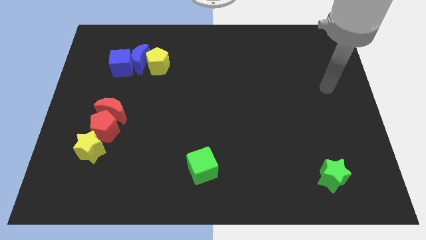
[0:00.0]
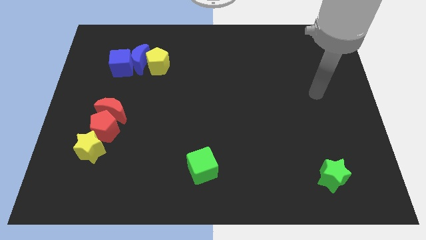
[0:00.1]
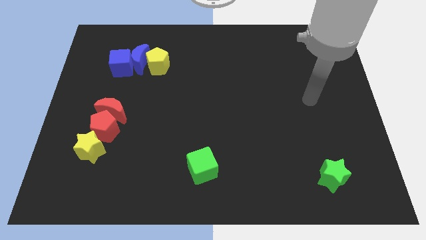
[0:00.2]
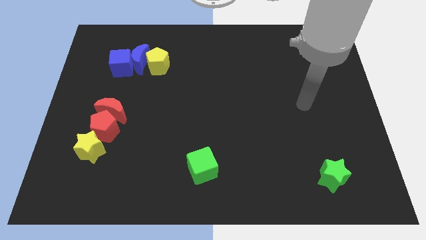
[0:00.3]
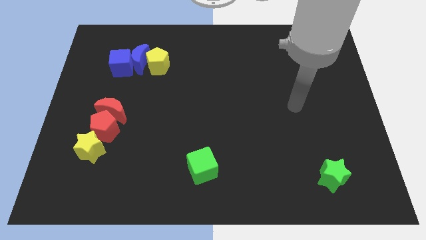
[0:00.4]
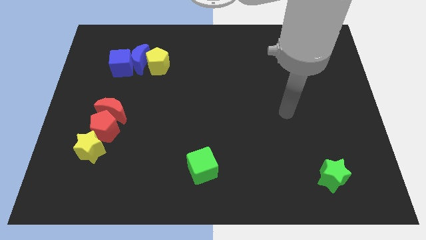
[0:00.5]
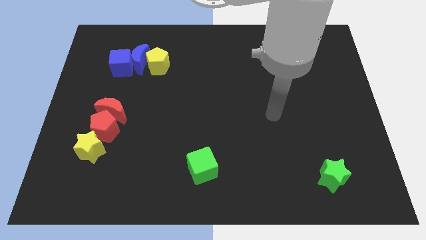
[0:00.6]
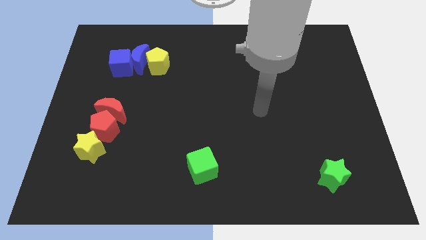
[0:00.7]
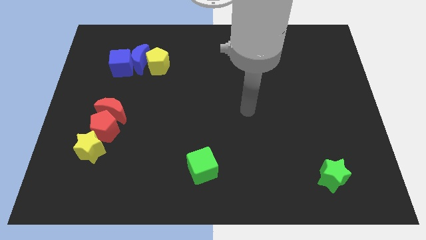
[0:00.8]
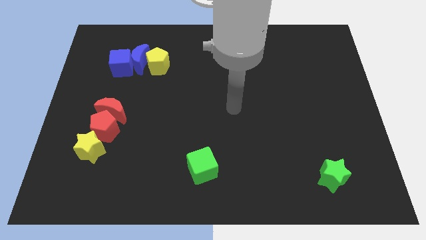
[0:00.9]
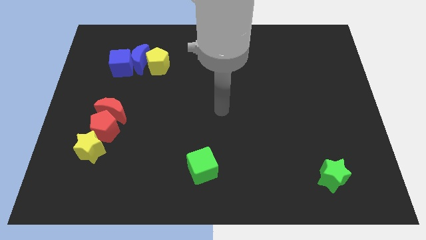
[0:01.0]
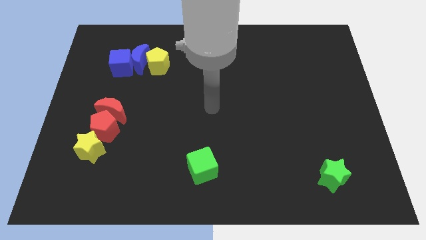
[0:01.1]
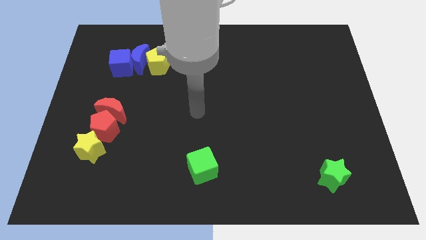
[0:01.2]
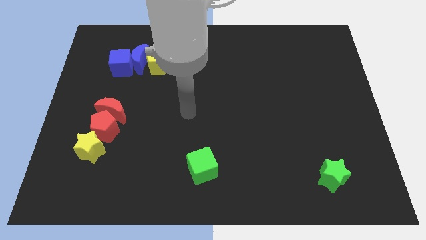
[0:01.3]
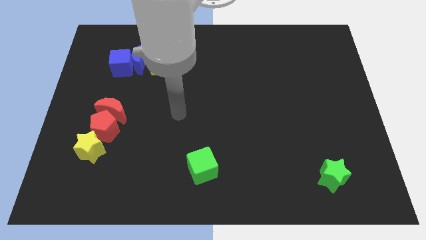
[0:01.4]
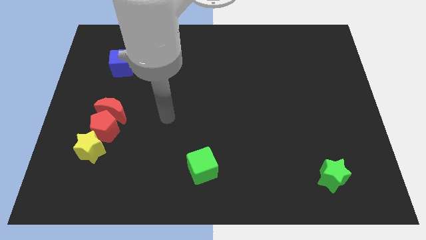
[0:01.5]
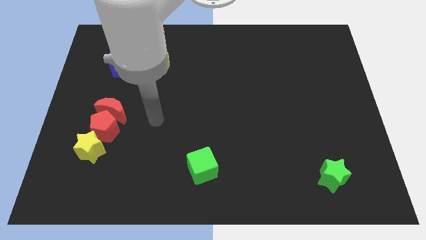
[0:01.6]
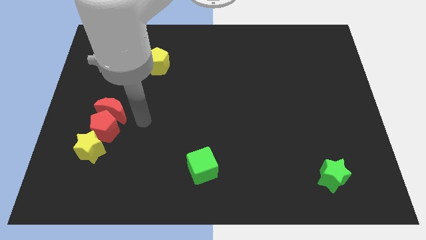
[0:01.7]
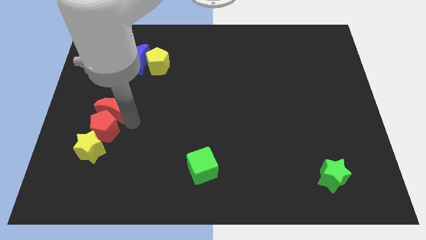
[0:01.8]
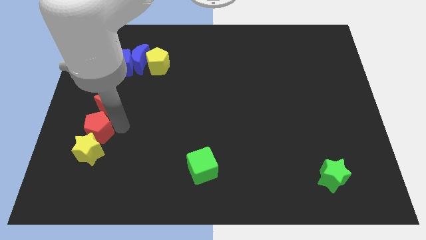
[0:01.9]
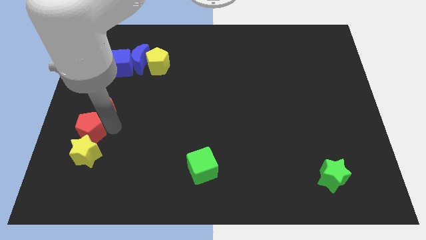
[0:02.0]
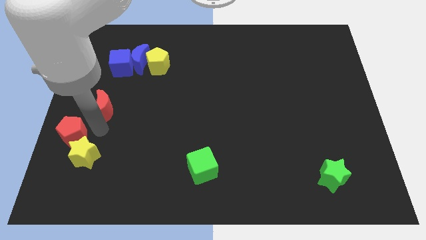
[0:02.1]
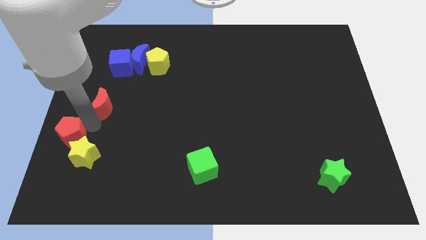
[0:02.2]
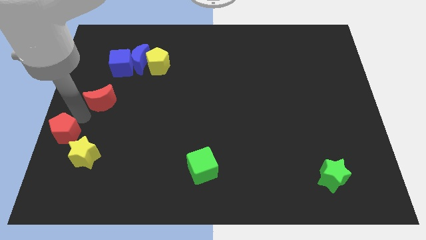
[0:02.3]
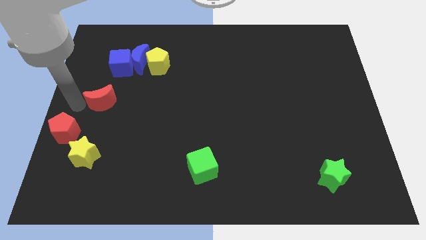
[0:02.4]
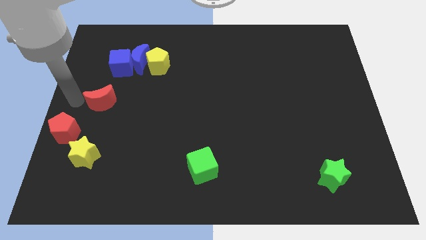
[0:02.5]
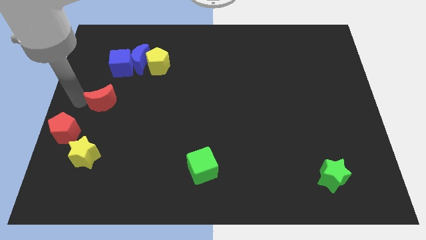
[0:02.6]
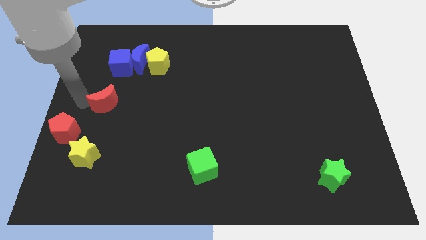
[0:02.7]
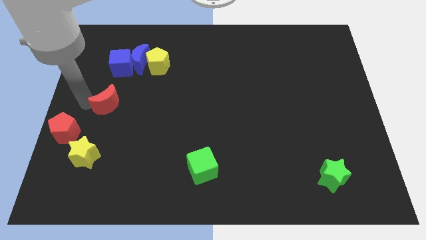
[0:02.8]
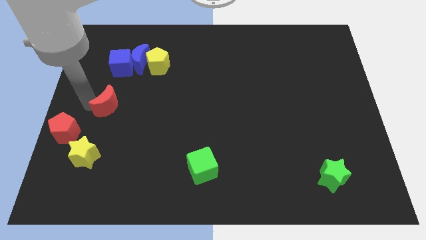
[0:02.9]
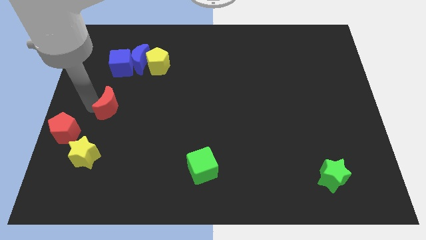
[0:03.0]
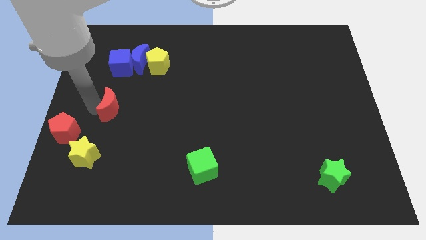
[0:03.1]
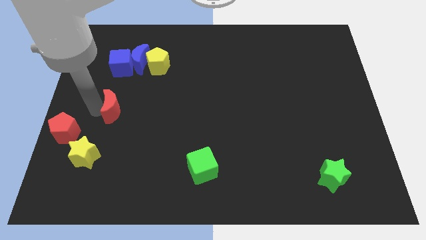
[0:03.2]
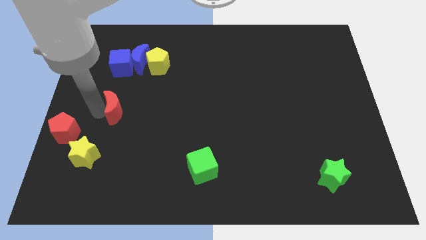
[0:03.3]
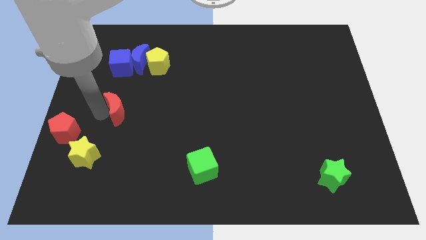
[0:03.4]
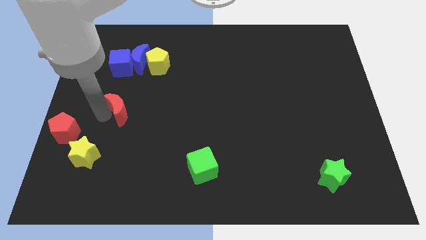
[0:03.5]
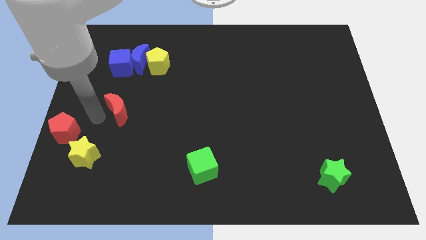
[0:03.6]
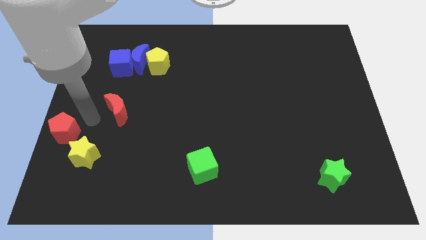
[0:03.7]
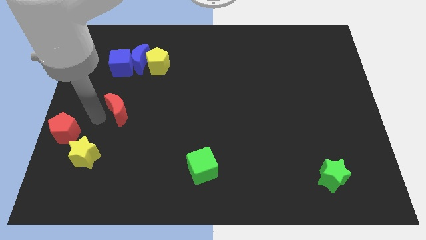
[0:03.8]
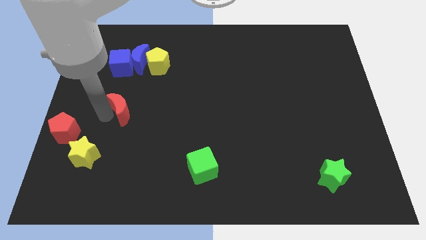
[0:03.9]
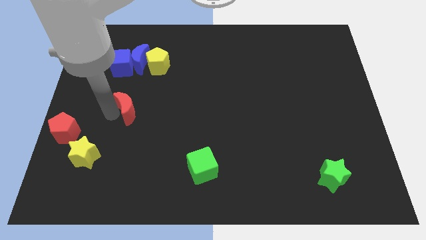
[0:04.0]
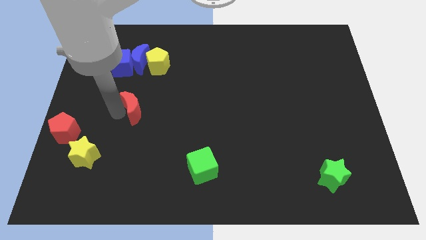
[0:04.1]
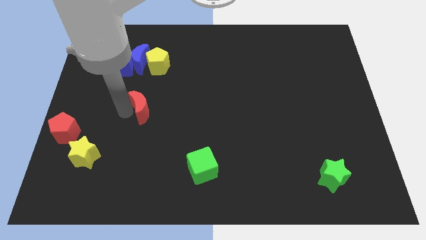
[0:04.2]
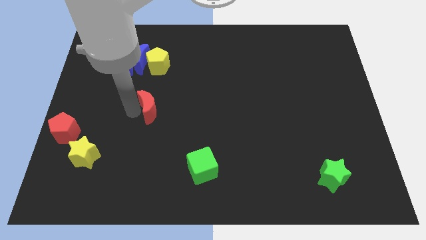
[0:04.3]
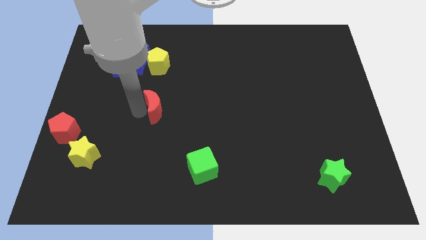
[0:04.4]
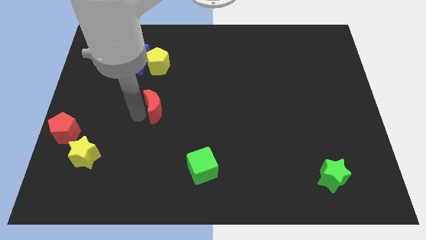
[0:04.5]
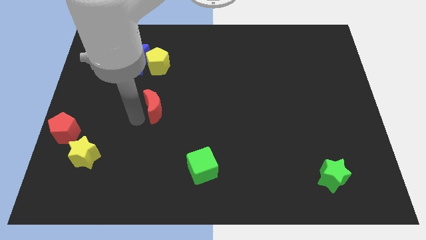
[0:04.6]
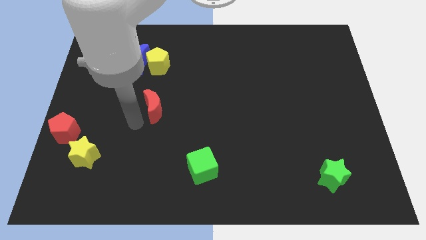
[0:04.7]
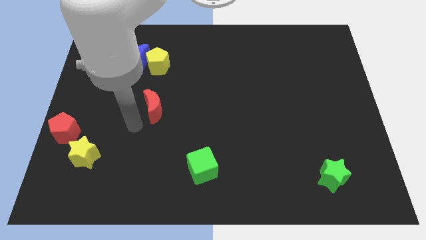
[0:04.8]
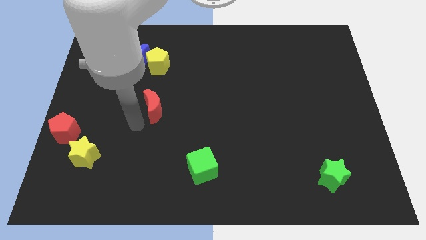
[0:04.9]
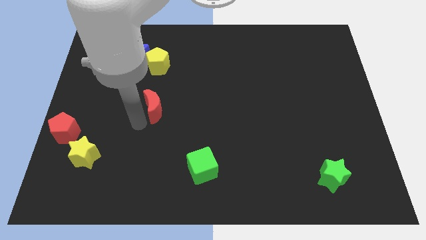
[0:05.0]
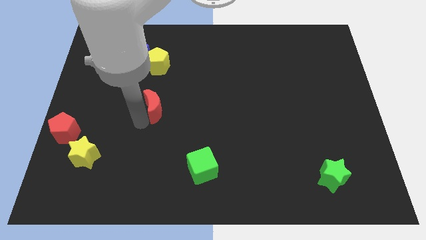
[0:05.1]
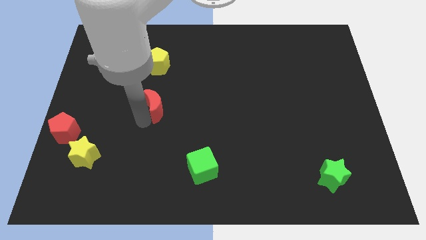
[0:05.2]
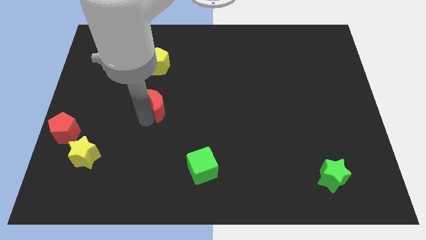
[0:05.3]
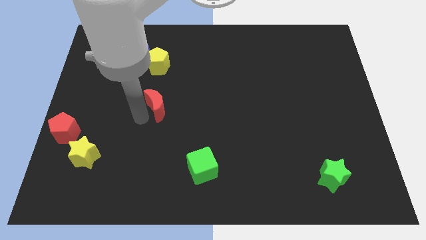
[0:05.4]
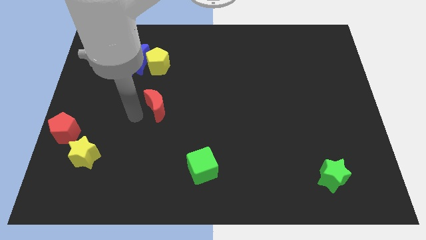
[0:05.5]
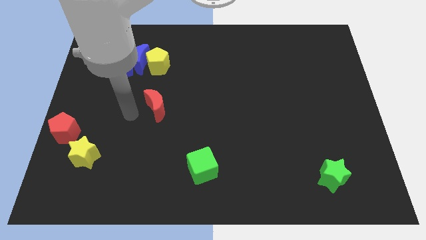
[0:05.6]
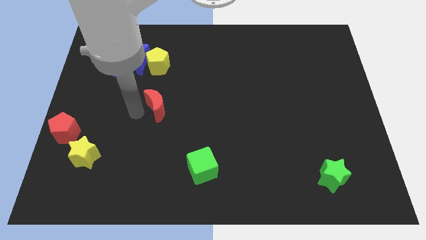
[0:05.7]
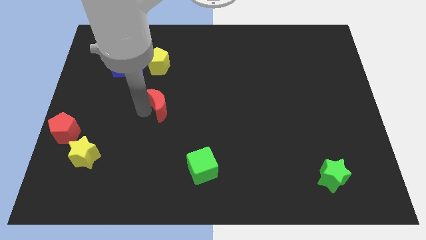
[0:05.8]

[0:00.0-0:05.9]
move the red moon to the middle
